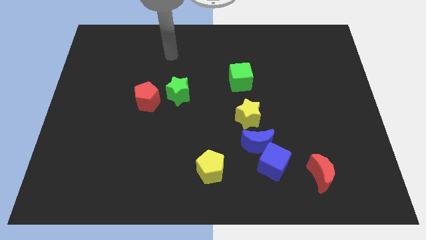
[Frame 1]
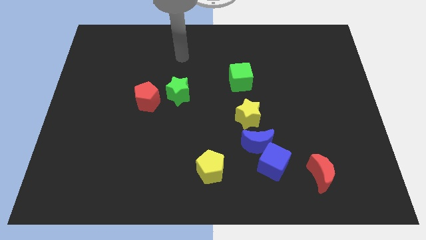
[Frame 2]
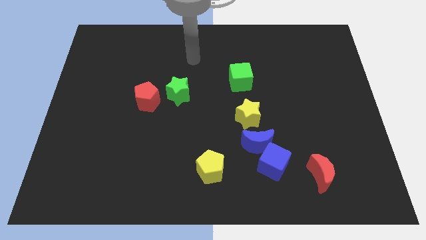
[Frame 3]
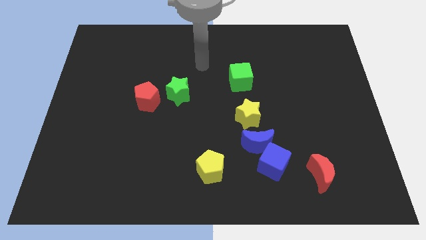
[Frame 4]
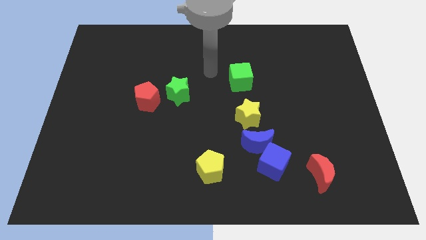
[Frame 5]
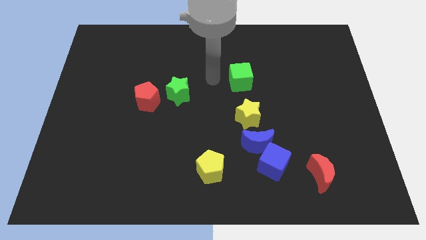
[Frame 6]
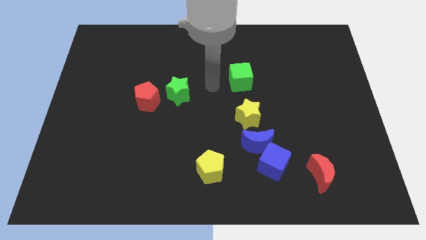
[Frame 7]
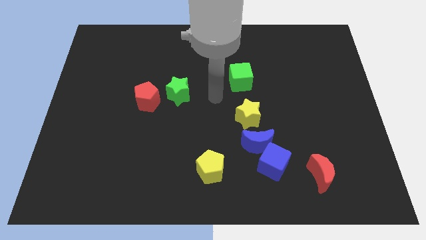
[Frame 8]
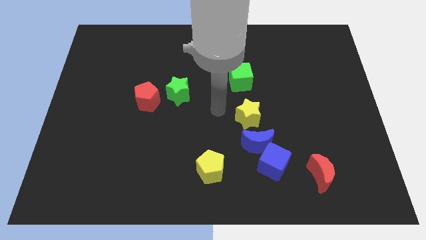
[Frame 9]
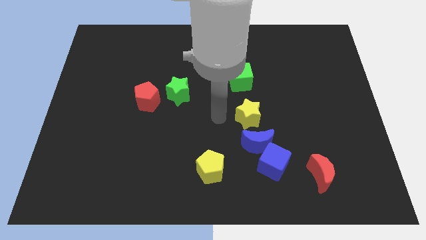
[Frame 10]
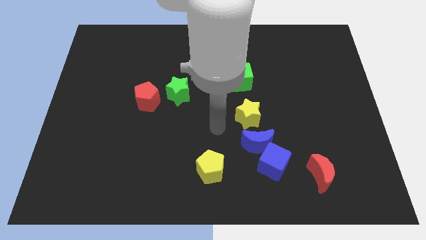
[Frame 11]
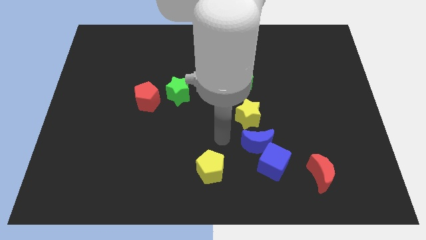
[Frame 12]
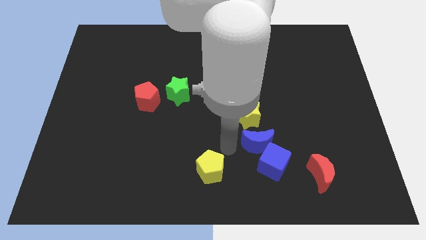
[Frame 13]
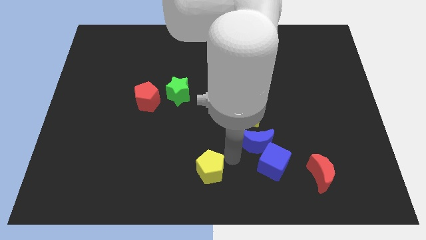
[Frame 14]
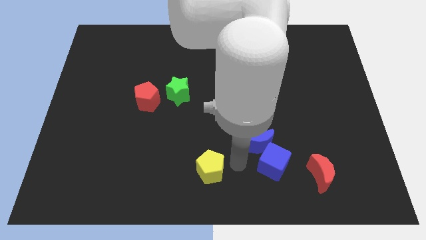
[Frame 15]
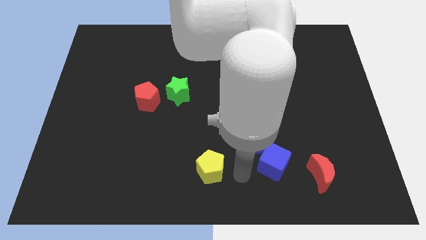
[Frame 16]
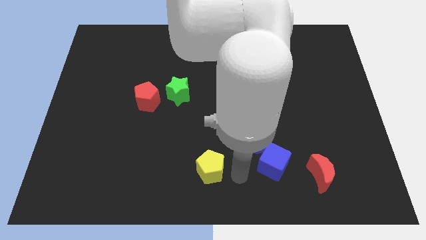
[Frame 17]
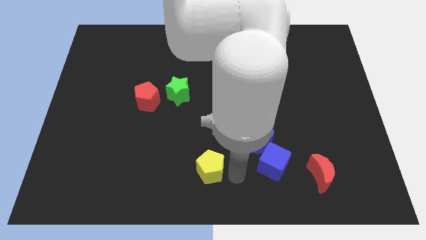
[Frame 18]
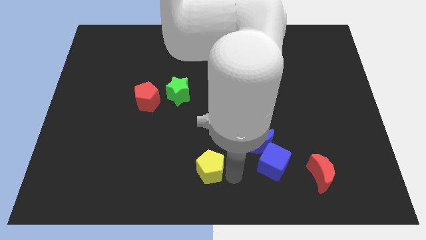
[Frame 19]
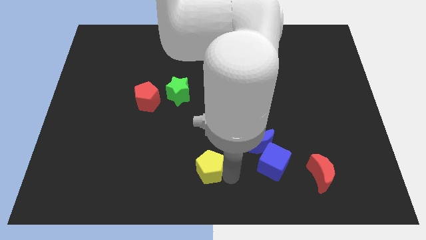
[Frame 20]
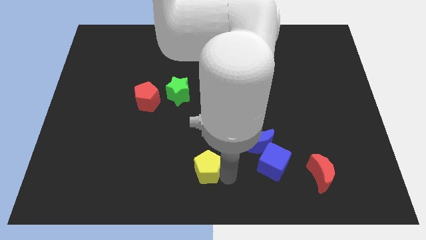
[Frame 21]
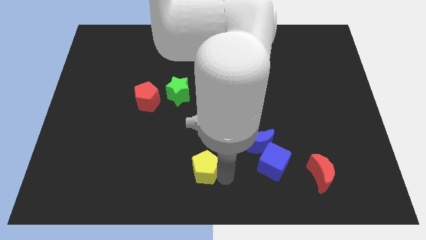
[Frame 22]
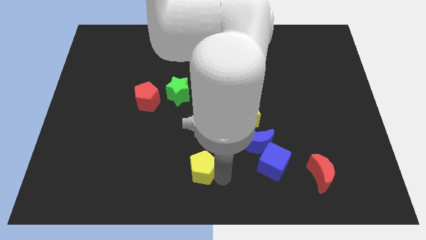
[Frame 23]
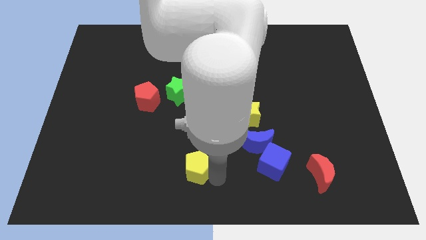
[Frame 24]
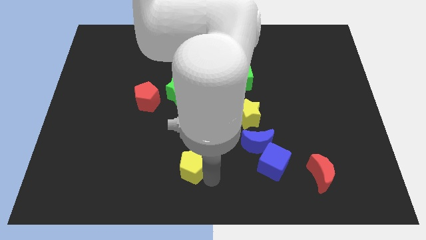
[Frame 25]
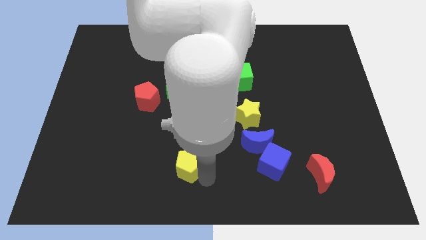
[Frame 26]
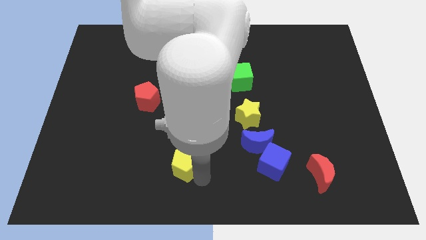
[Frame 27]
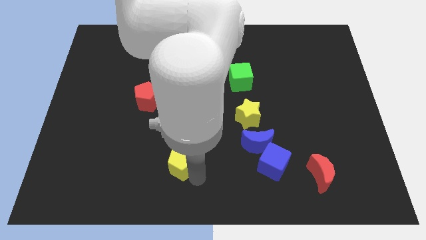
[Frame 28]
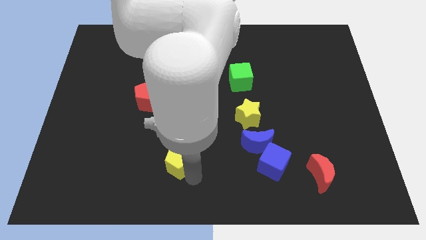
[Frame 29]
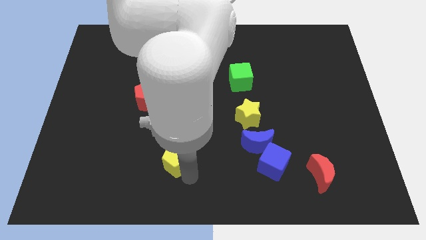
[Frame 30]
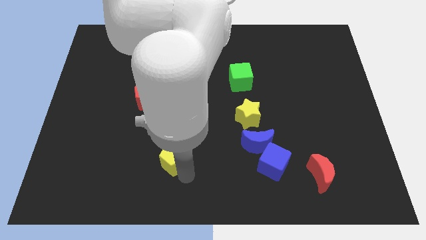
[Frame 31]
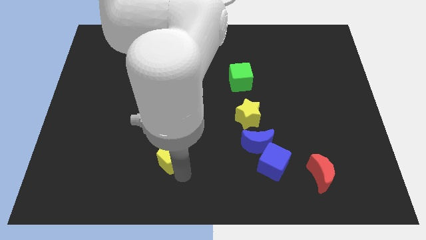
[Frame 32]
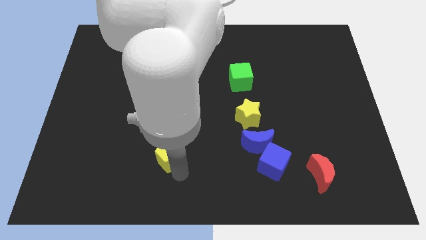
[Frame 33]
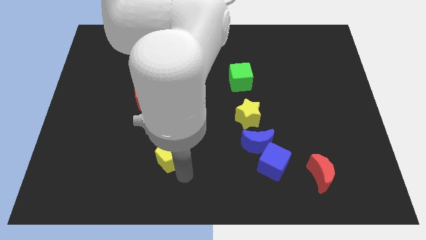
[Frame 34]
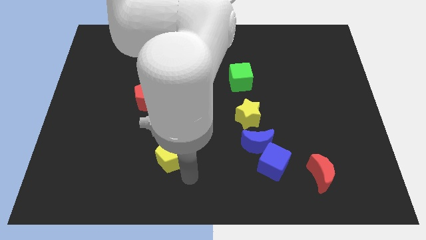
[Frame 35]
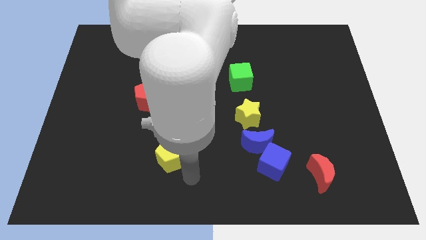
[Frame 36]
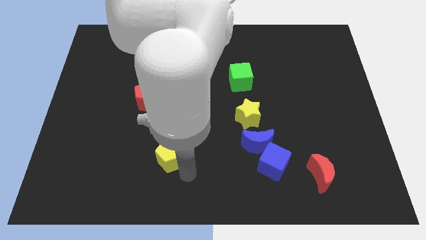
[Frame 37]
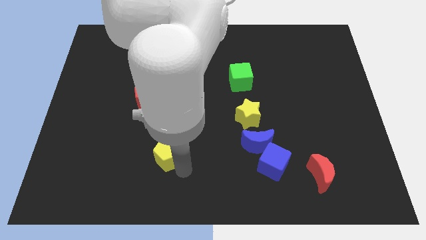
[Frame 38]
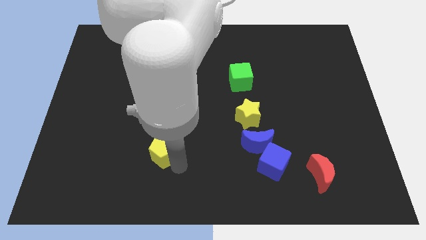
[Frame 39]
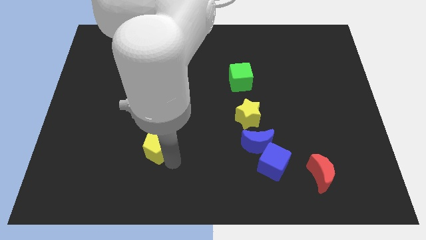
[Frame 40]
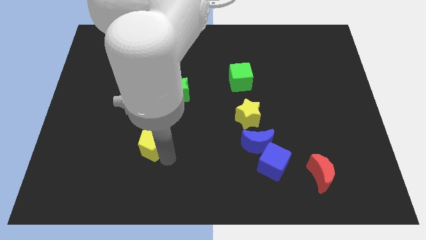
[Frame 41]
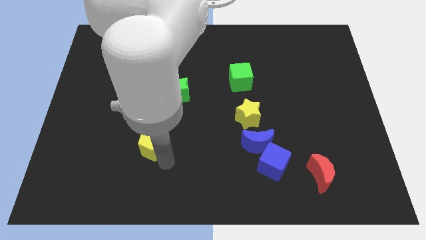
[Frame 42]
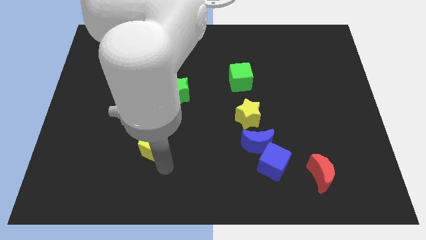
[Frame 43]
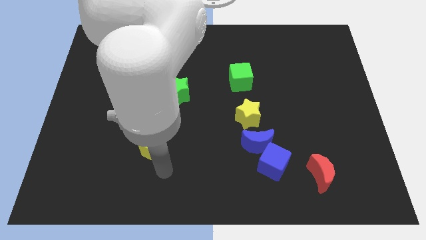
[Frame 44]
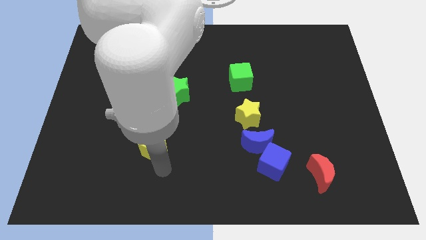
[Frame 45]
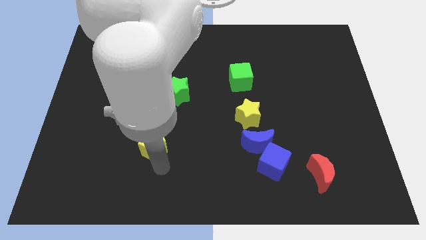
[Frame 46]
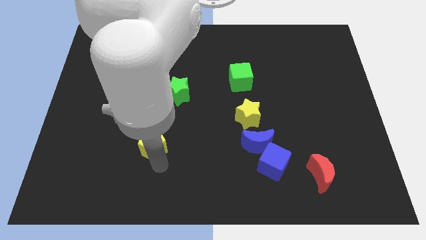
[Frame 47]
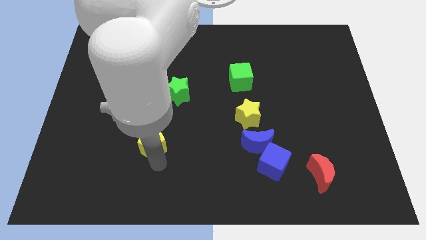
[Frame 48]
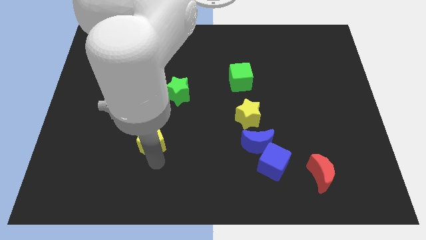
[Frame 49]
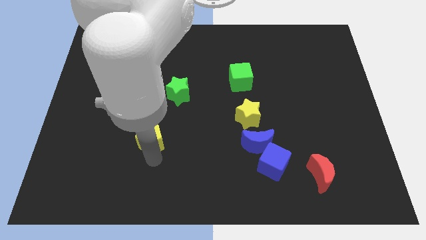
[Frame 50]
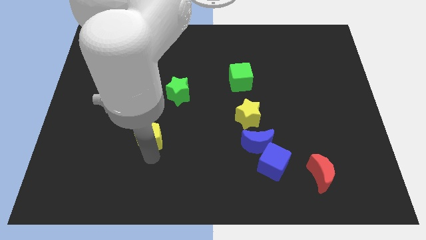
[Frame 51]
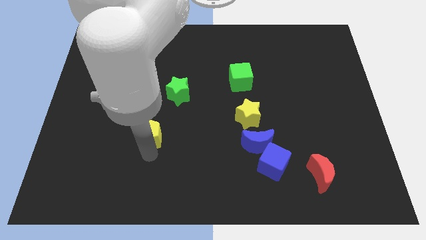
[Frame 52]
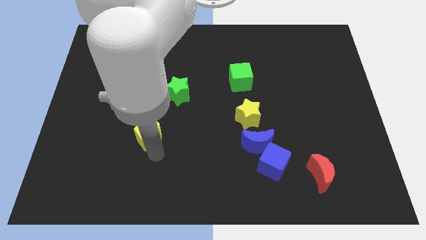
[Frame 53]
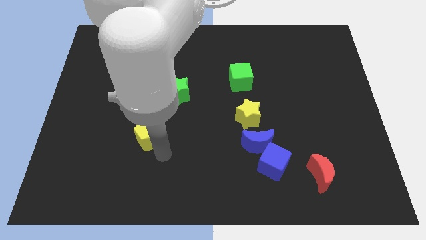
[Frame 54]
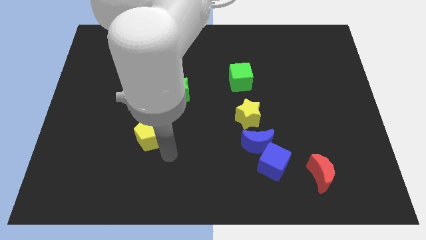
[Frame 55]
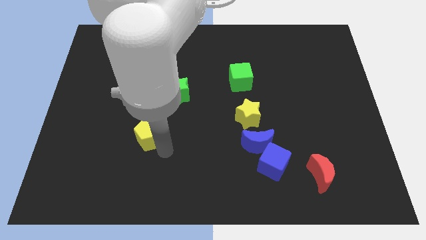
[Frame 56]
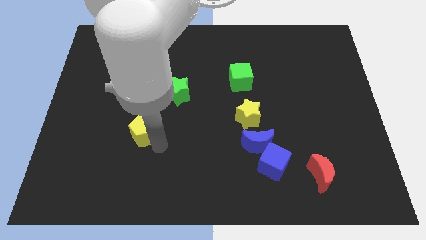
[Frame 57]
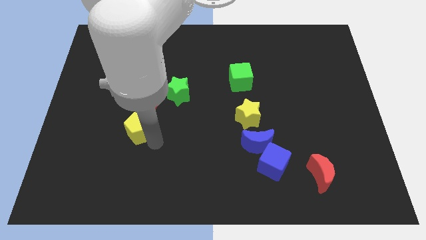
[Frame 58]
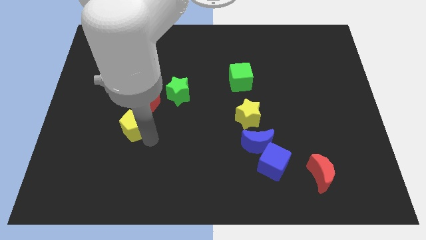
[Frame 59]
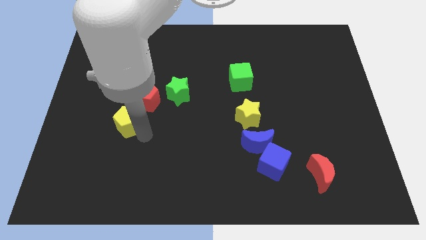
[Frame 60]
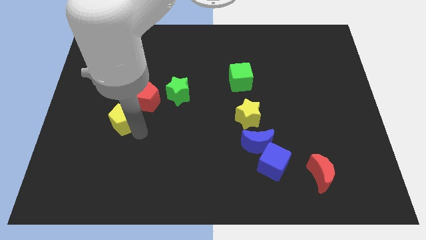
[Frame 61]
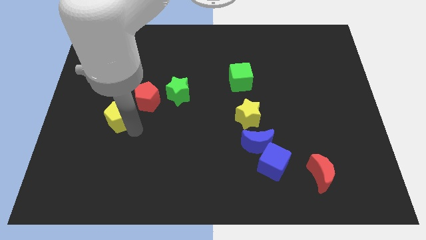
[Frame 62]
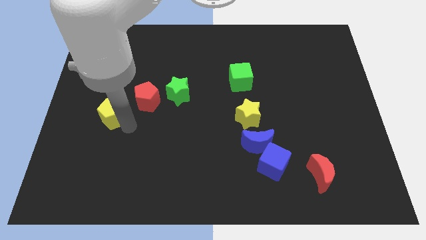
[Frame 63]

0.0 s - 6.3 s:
put the yellow pentagon just left of the red pentagon

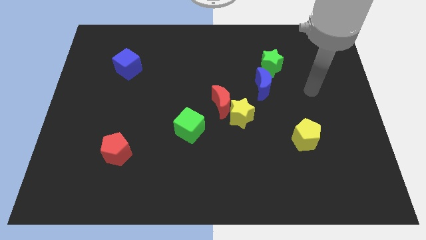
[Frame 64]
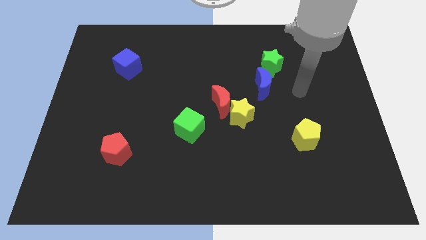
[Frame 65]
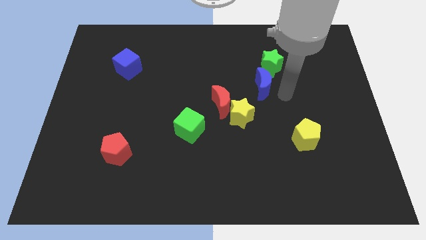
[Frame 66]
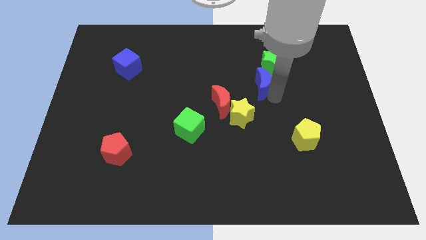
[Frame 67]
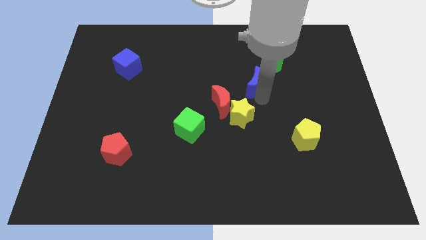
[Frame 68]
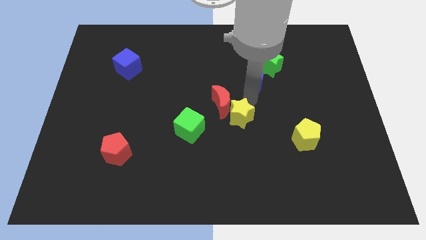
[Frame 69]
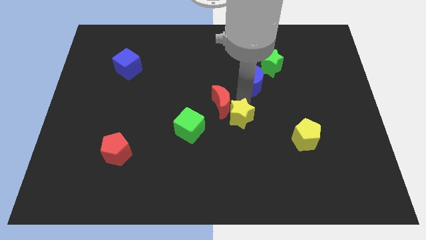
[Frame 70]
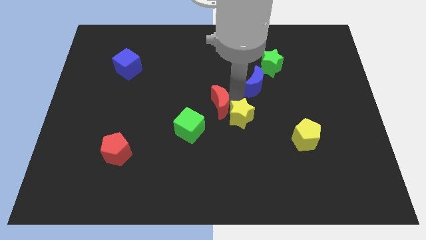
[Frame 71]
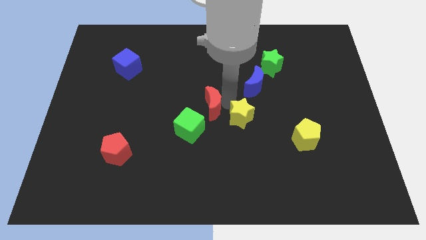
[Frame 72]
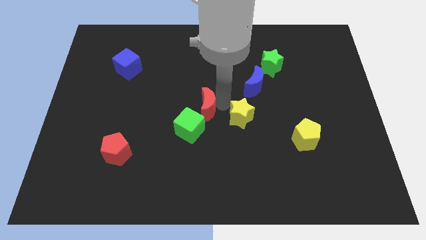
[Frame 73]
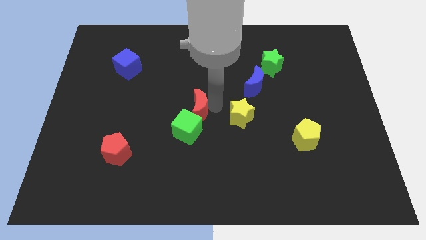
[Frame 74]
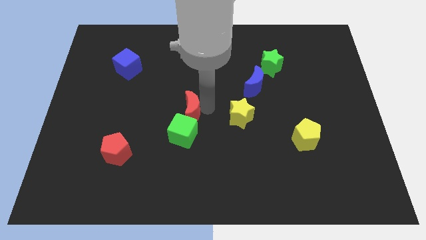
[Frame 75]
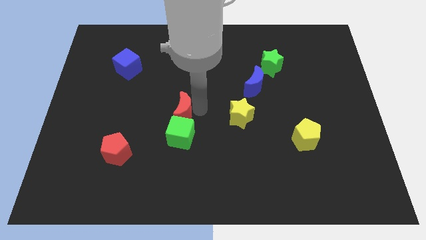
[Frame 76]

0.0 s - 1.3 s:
put the red moon to the top left of the green cube

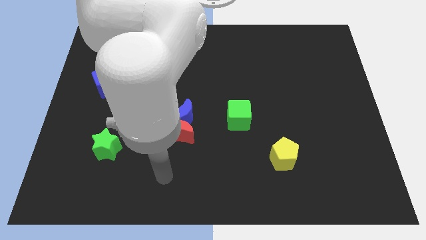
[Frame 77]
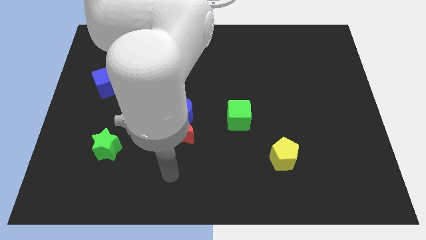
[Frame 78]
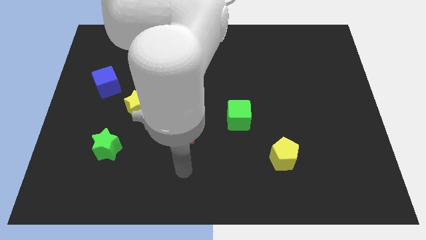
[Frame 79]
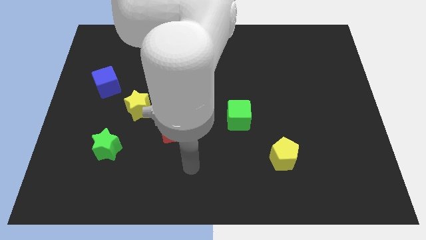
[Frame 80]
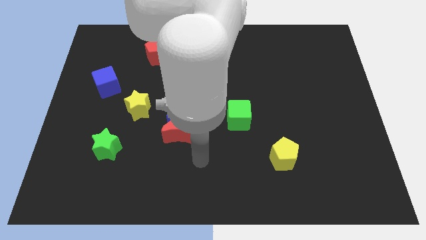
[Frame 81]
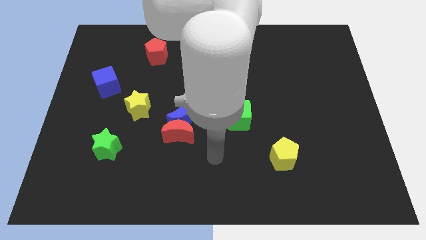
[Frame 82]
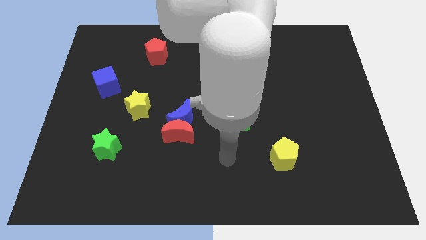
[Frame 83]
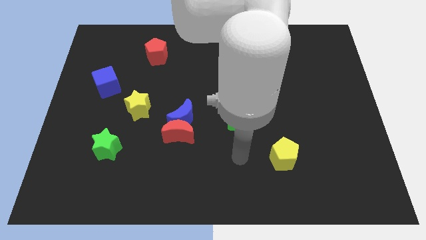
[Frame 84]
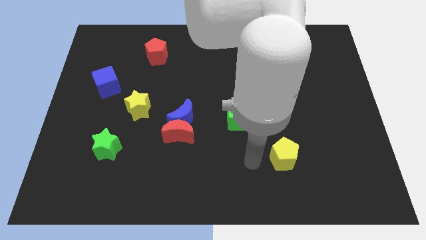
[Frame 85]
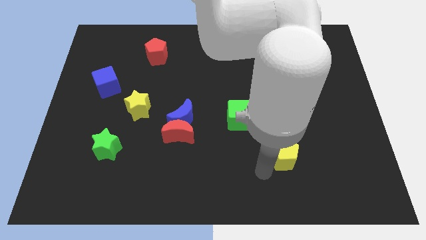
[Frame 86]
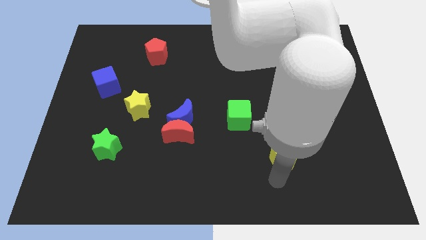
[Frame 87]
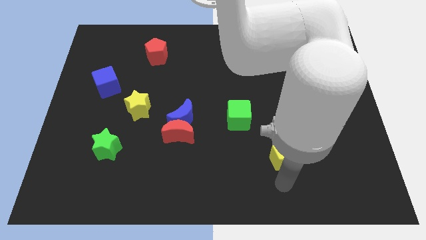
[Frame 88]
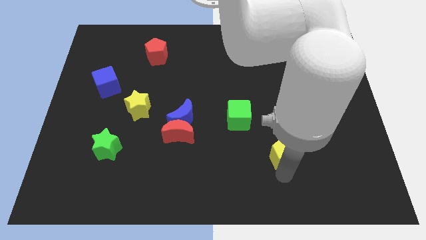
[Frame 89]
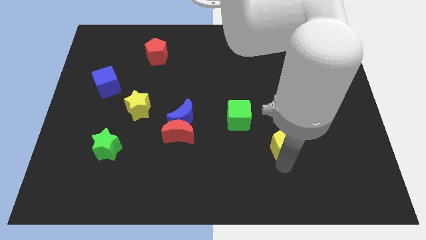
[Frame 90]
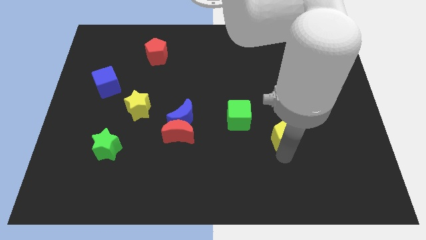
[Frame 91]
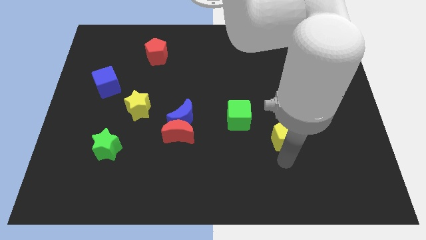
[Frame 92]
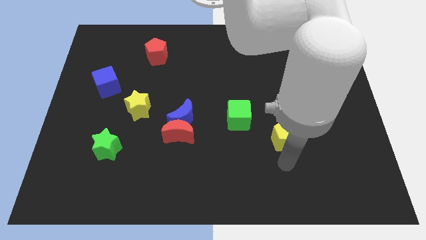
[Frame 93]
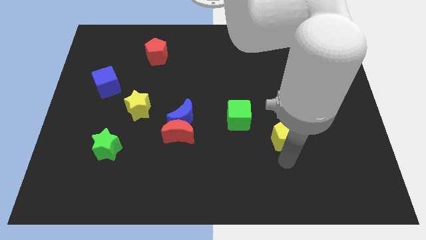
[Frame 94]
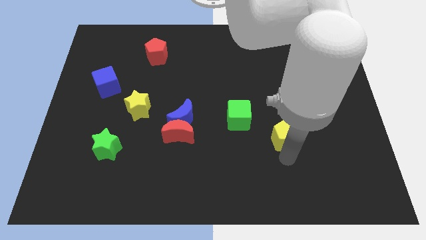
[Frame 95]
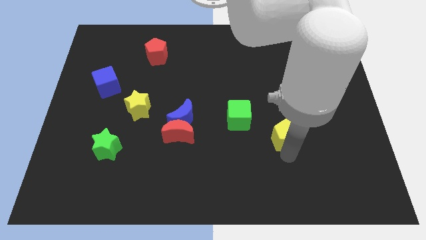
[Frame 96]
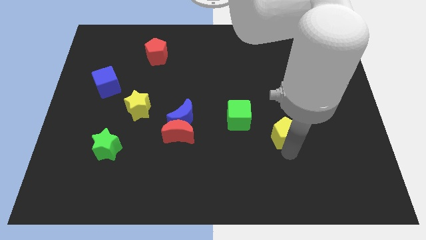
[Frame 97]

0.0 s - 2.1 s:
push the yellow pentagon to the right of the green cube
